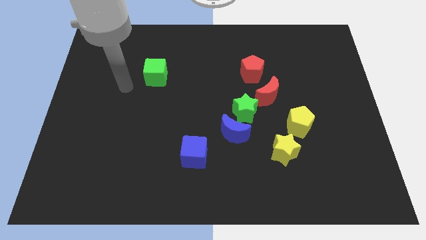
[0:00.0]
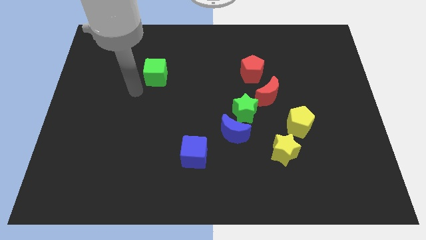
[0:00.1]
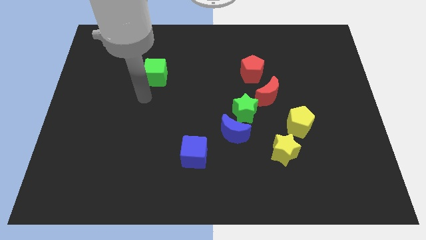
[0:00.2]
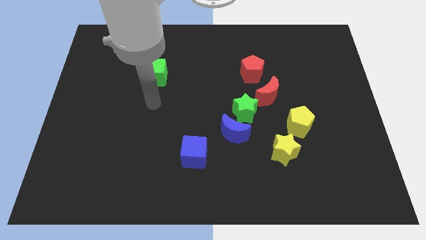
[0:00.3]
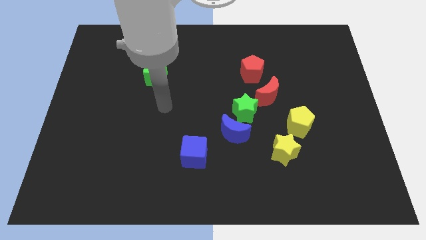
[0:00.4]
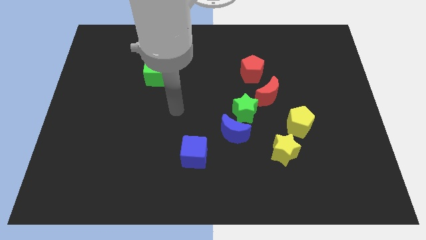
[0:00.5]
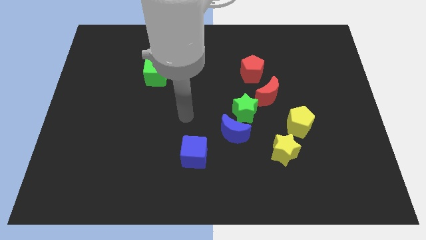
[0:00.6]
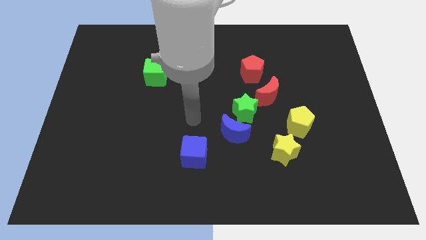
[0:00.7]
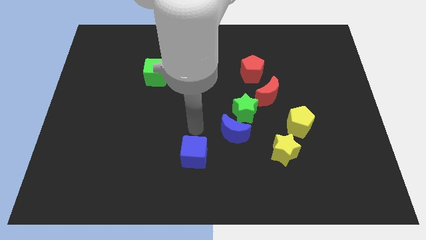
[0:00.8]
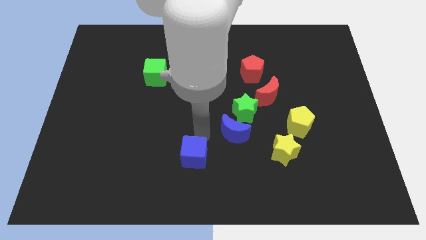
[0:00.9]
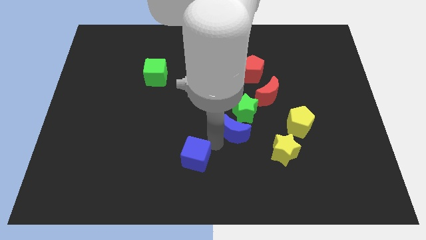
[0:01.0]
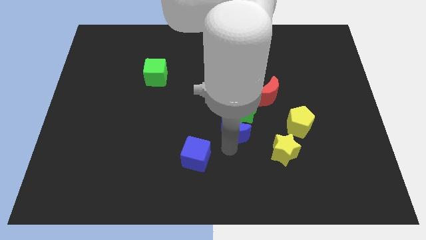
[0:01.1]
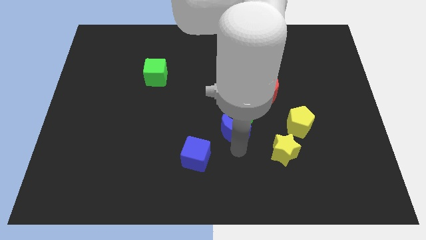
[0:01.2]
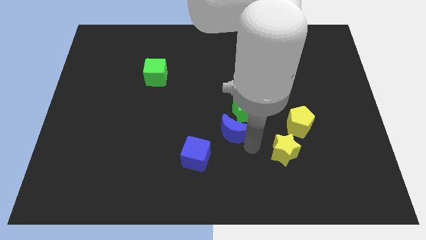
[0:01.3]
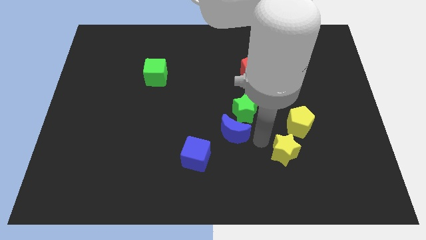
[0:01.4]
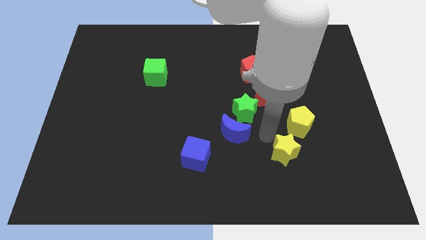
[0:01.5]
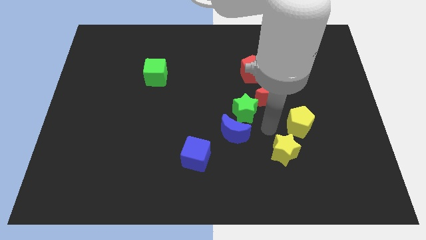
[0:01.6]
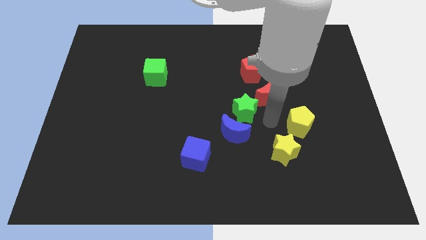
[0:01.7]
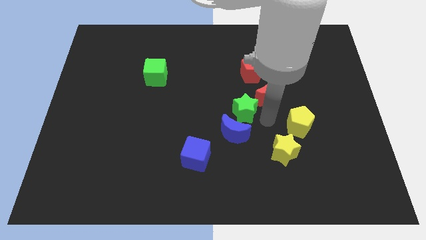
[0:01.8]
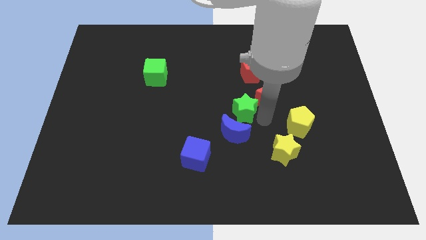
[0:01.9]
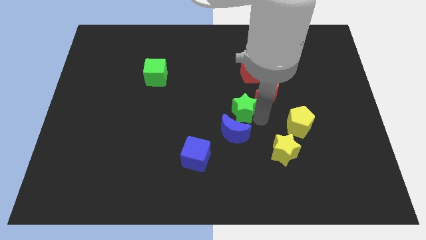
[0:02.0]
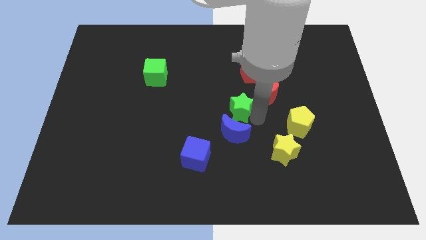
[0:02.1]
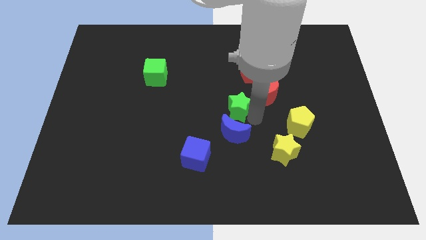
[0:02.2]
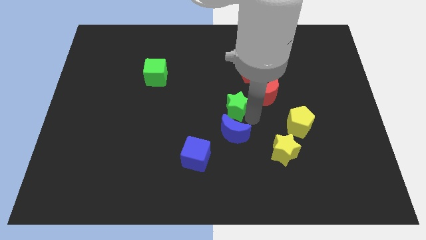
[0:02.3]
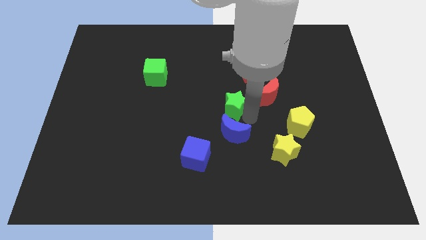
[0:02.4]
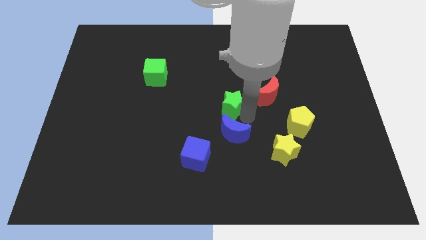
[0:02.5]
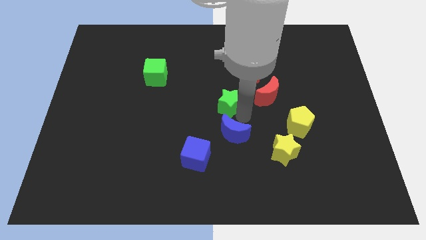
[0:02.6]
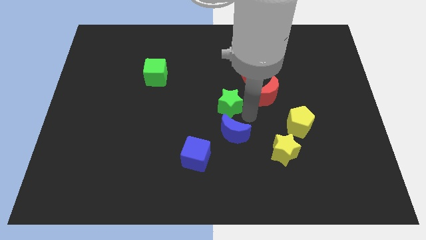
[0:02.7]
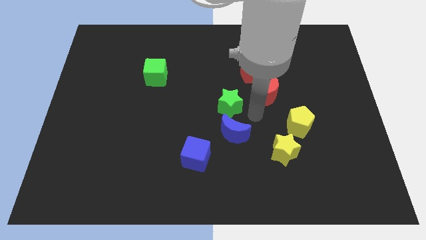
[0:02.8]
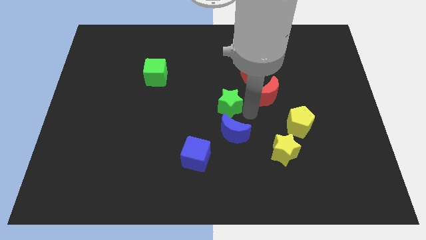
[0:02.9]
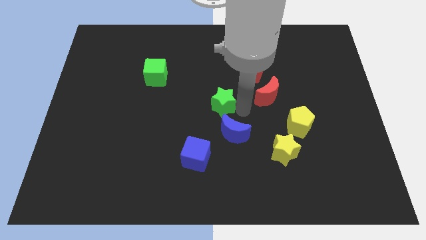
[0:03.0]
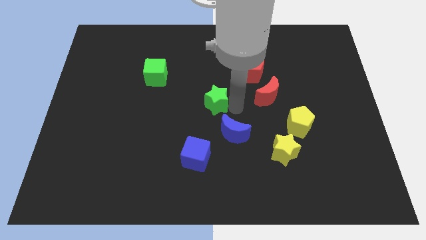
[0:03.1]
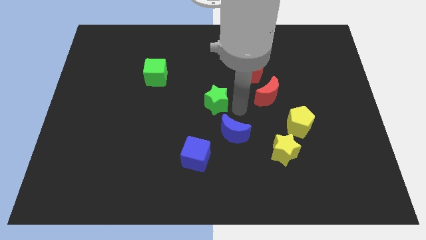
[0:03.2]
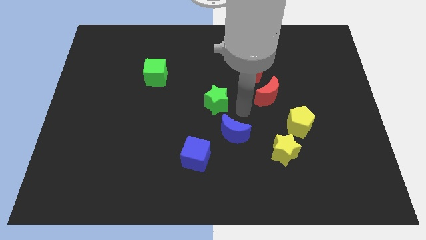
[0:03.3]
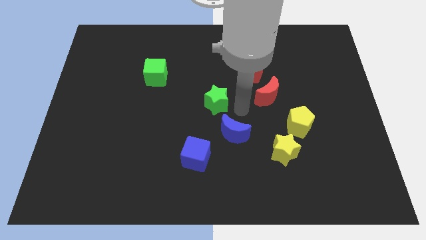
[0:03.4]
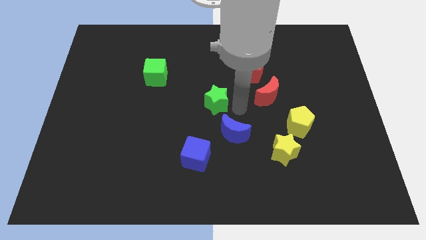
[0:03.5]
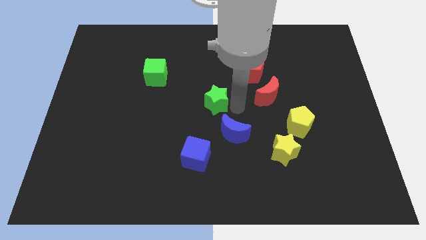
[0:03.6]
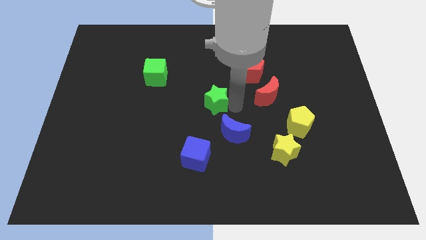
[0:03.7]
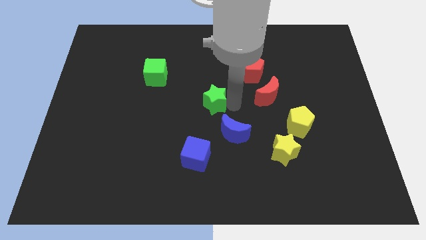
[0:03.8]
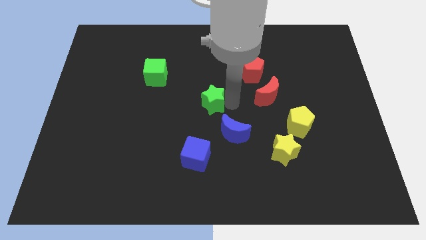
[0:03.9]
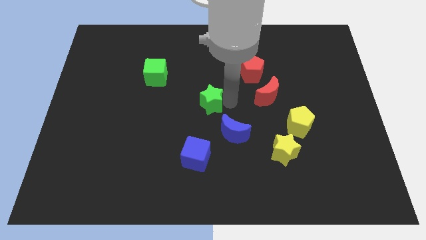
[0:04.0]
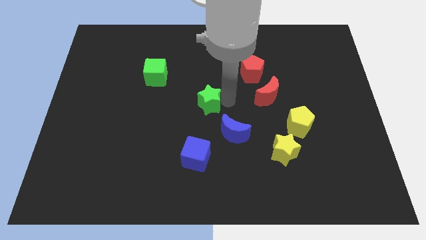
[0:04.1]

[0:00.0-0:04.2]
pull the green star apart from the blue moon and red moon

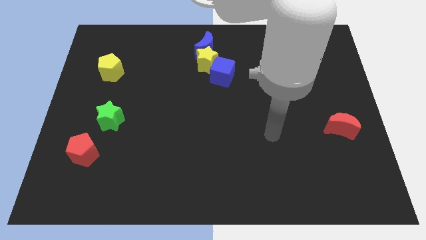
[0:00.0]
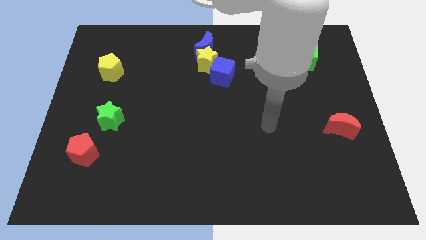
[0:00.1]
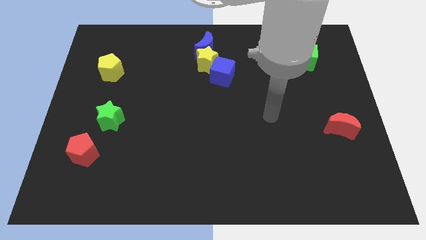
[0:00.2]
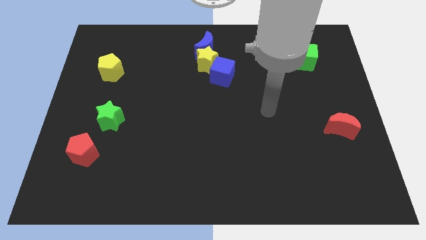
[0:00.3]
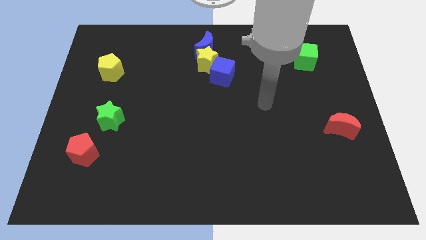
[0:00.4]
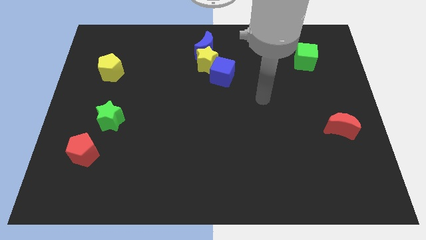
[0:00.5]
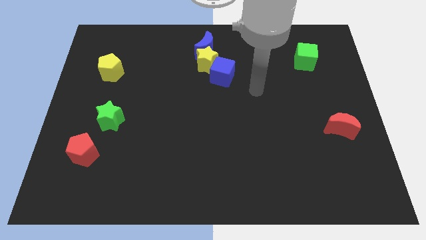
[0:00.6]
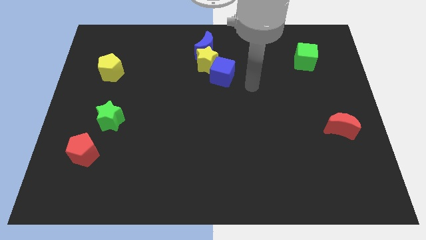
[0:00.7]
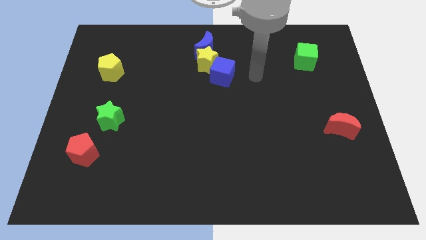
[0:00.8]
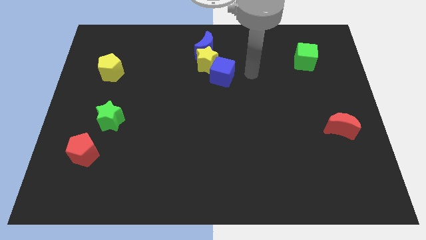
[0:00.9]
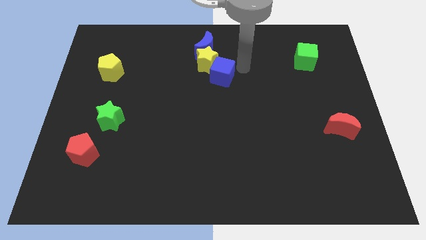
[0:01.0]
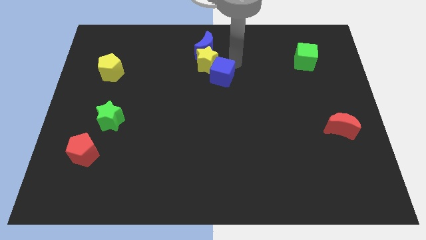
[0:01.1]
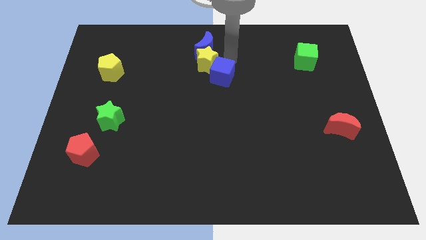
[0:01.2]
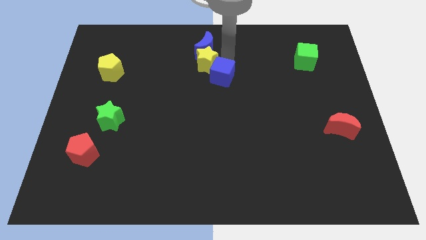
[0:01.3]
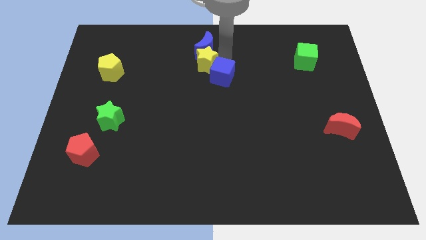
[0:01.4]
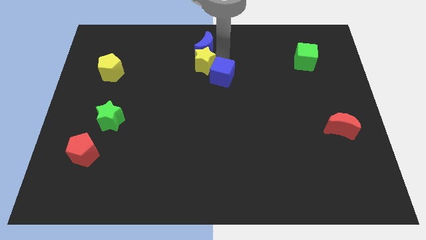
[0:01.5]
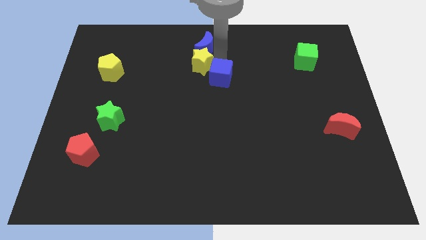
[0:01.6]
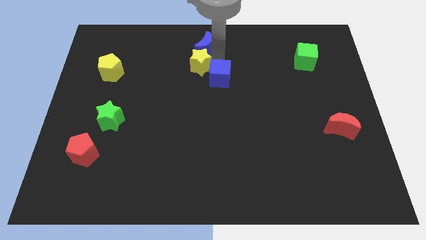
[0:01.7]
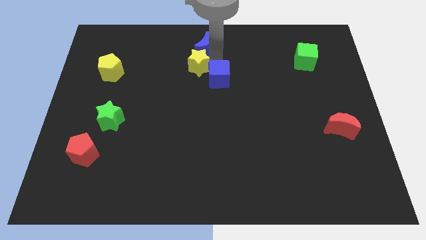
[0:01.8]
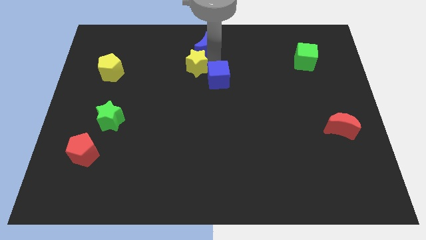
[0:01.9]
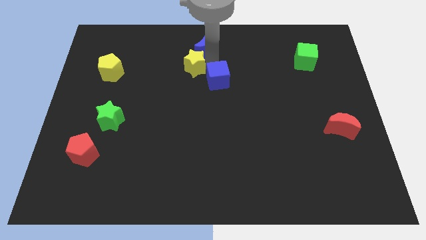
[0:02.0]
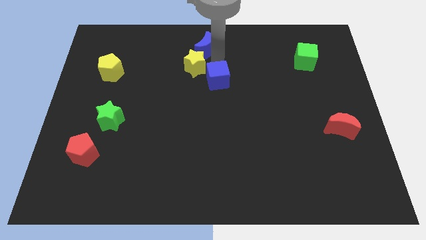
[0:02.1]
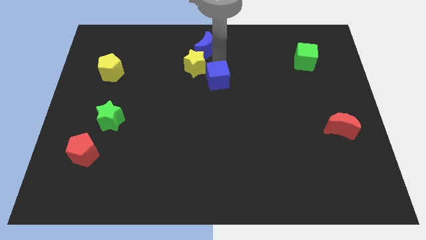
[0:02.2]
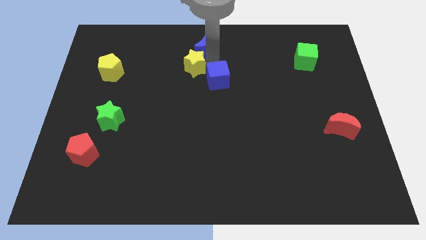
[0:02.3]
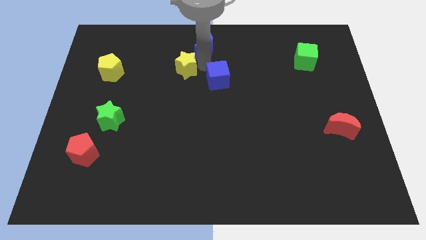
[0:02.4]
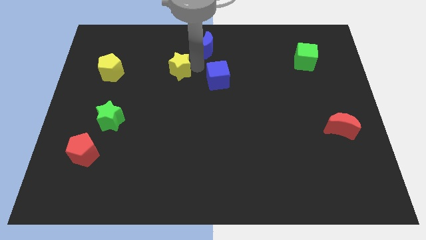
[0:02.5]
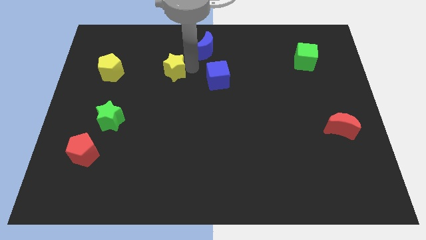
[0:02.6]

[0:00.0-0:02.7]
move the yellow star away from the blue moon and blue cube

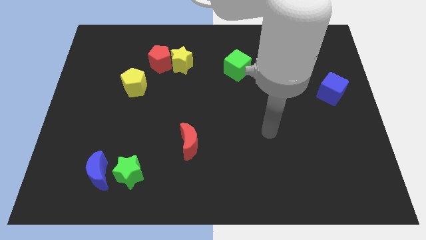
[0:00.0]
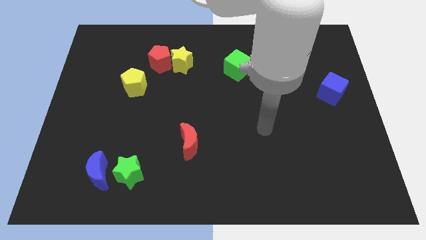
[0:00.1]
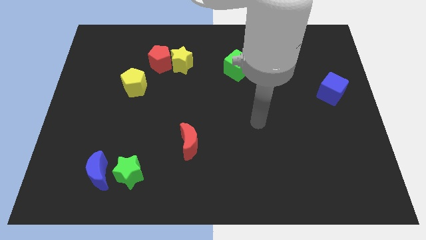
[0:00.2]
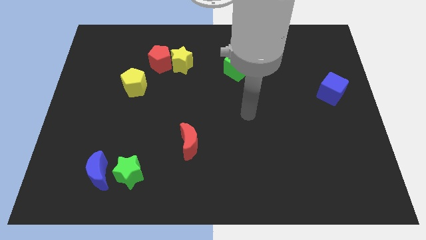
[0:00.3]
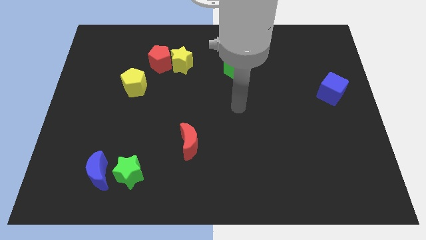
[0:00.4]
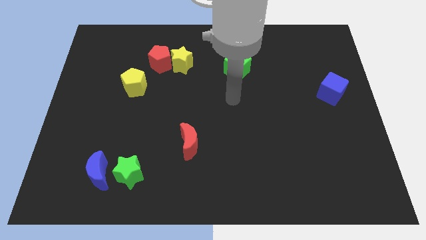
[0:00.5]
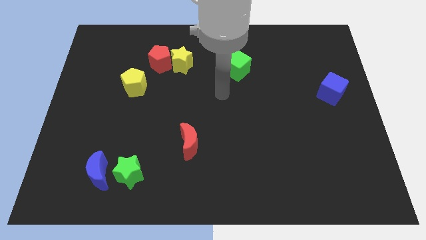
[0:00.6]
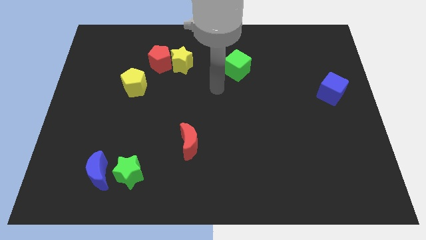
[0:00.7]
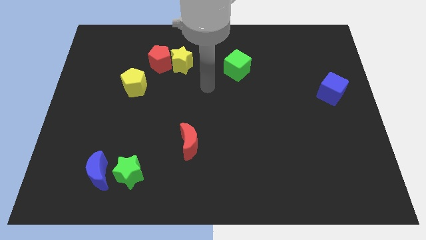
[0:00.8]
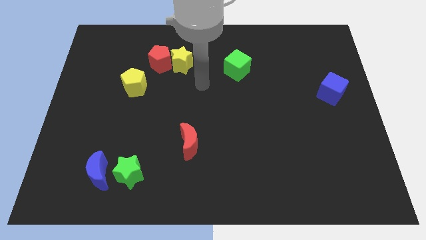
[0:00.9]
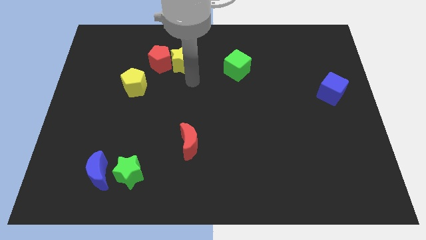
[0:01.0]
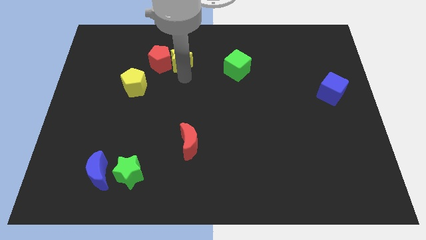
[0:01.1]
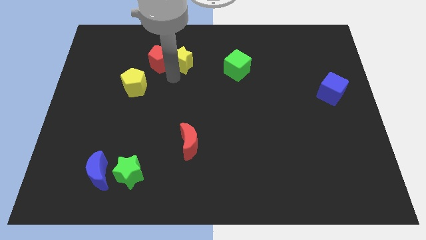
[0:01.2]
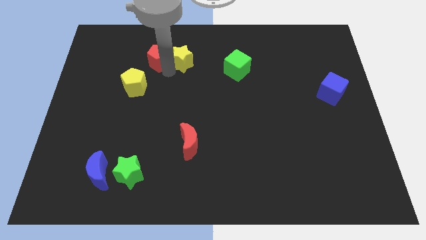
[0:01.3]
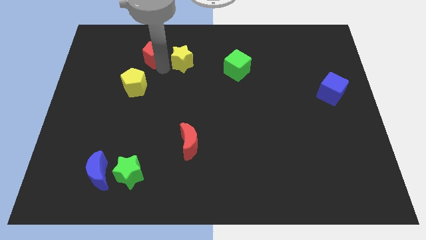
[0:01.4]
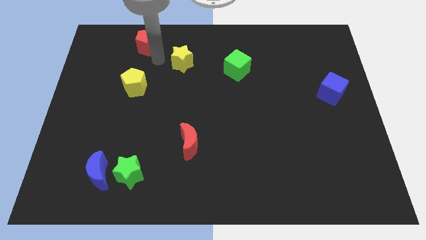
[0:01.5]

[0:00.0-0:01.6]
separate the yellow star from the red pentagon

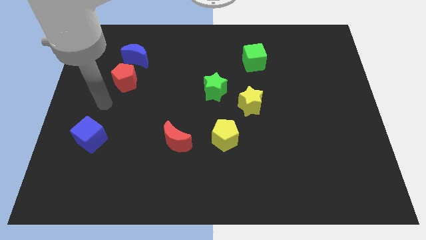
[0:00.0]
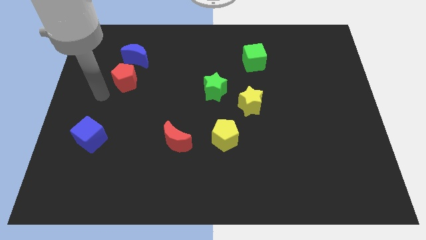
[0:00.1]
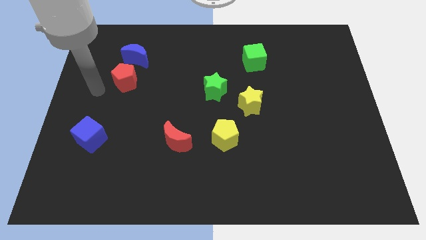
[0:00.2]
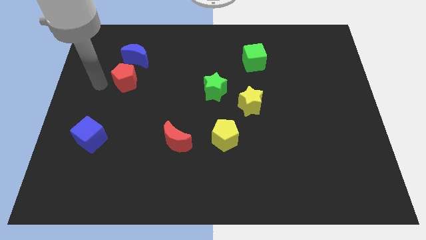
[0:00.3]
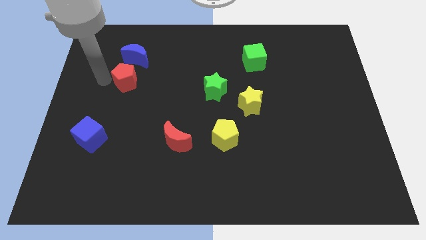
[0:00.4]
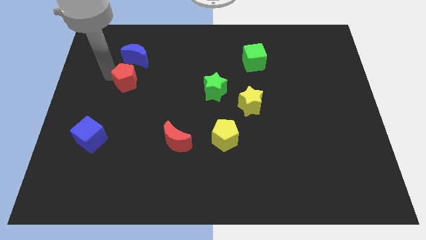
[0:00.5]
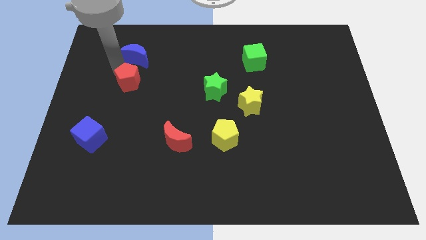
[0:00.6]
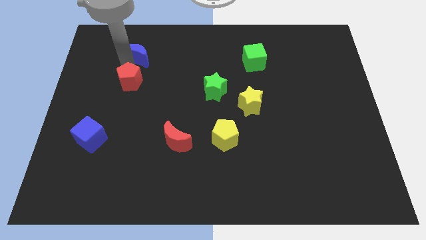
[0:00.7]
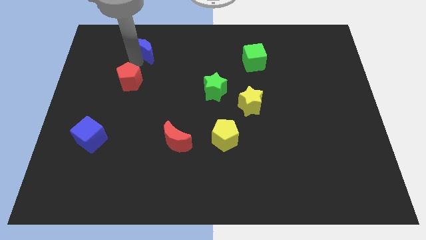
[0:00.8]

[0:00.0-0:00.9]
pull the red pentagon apart from the blue moon
